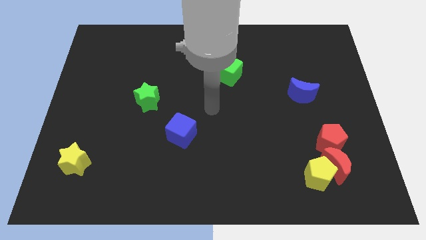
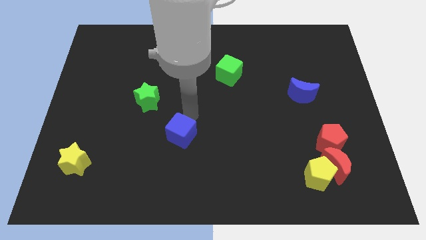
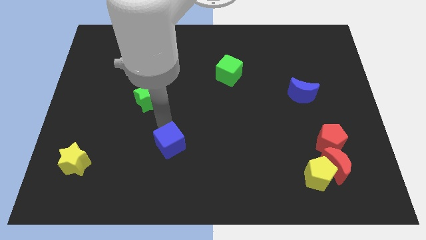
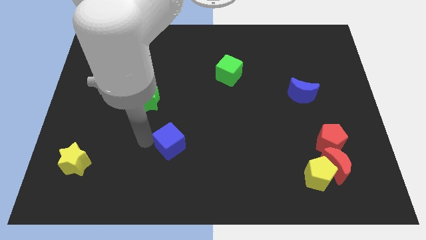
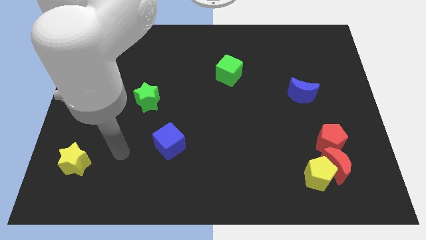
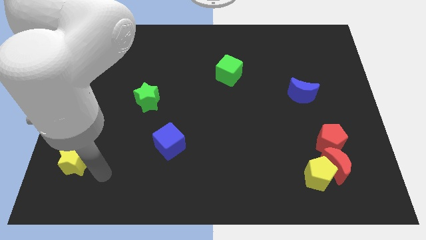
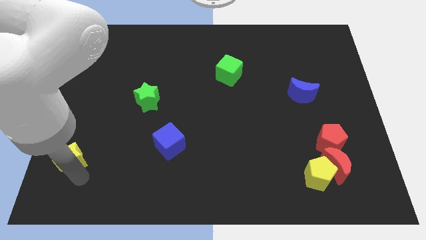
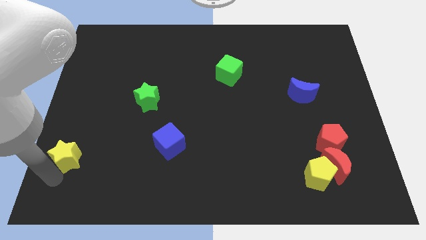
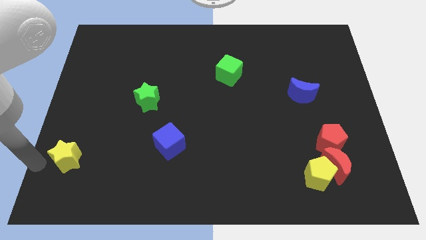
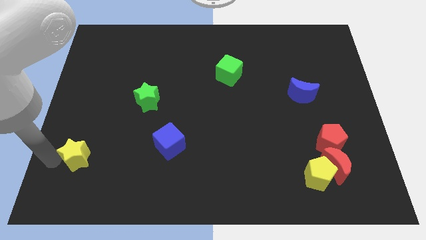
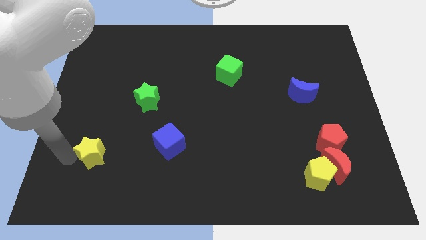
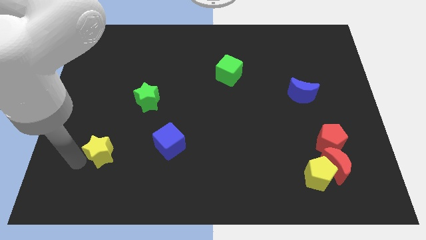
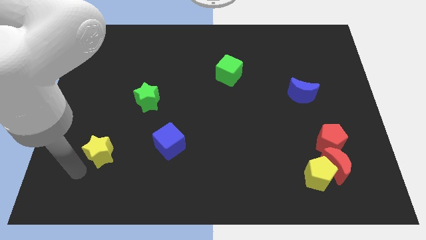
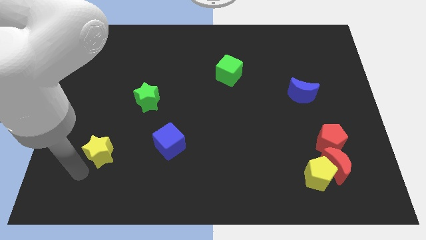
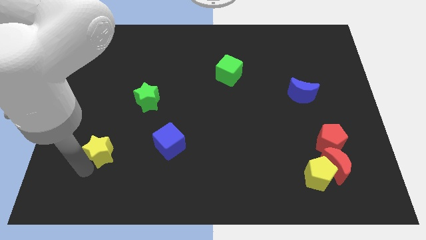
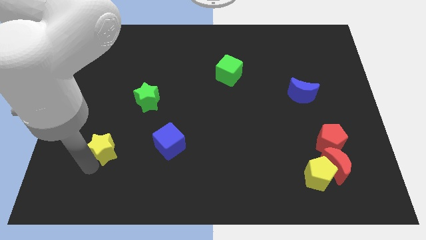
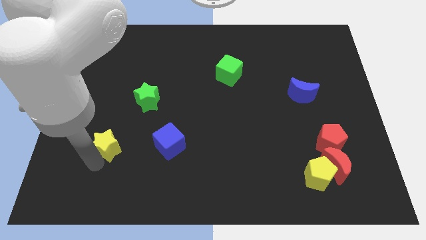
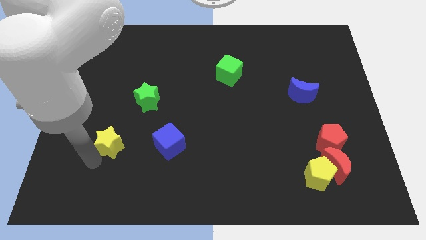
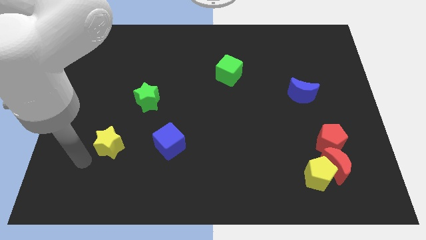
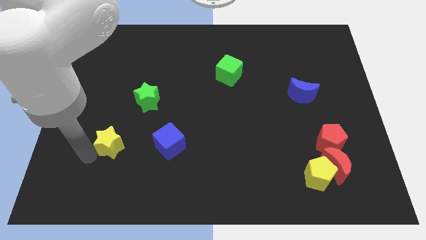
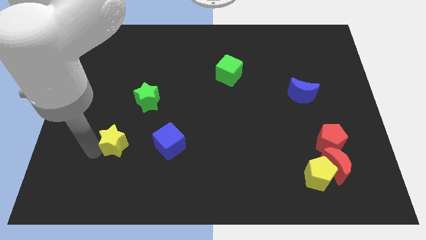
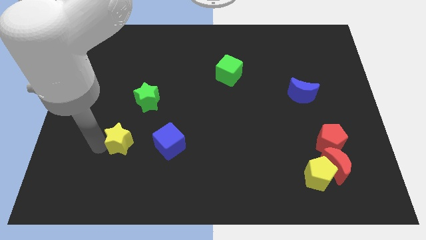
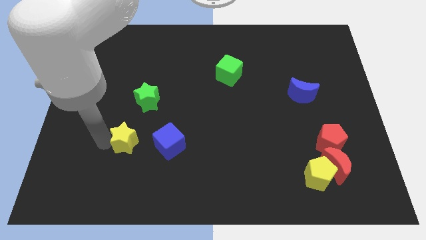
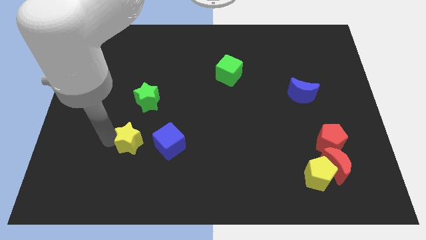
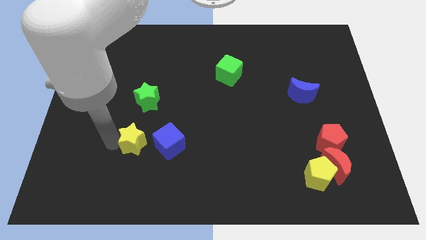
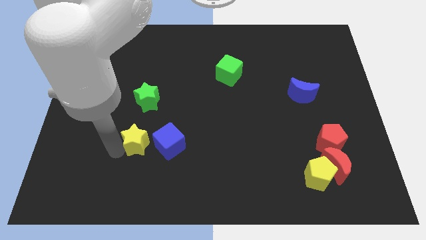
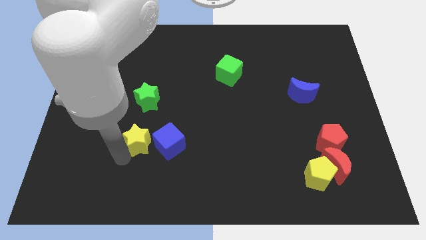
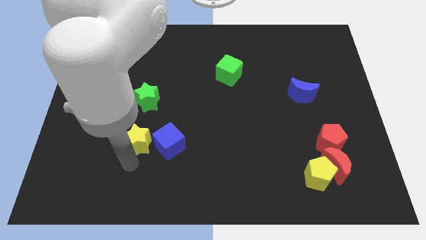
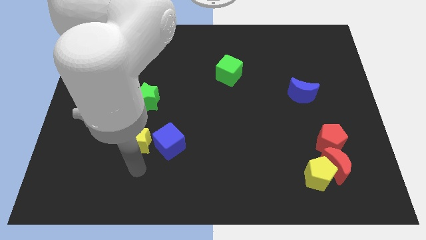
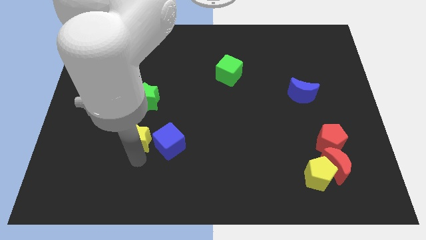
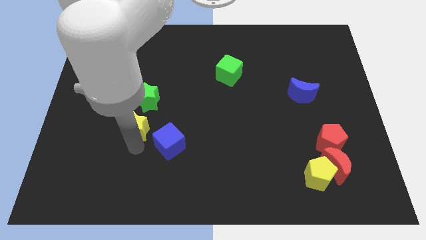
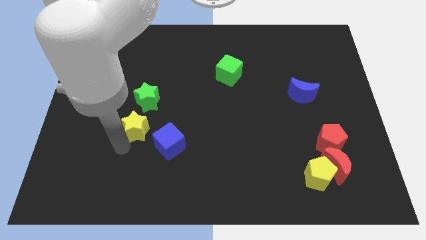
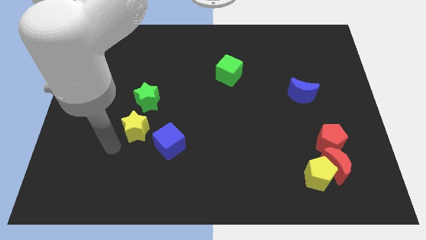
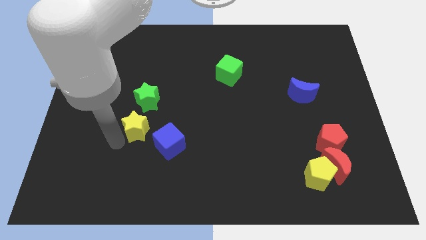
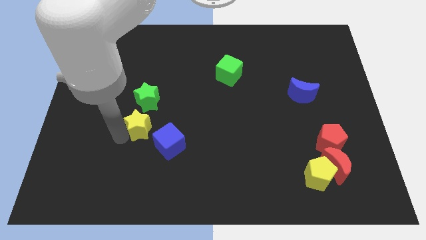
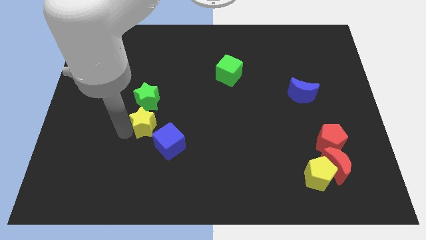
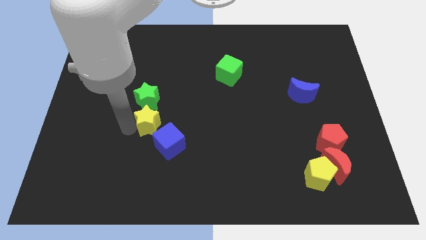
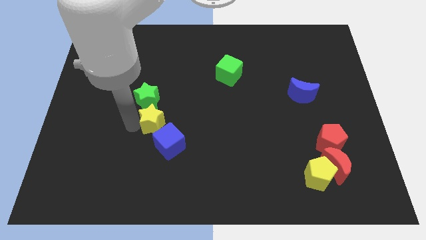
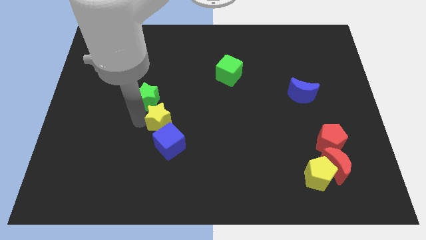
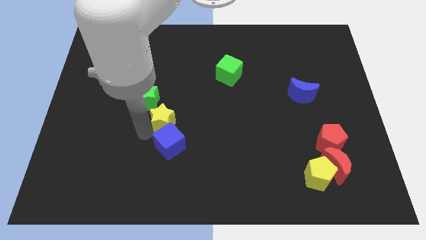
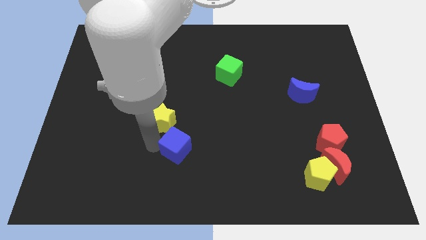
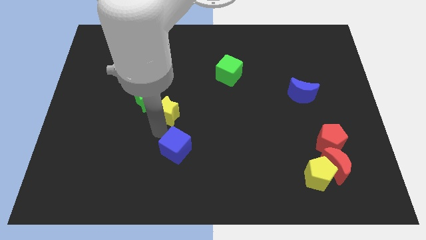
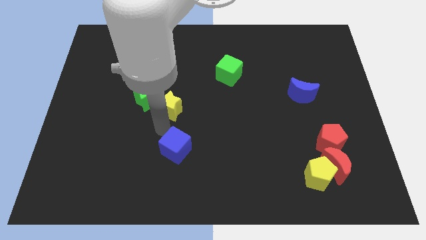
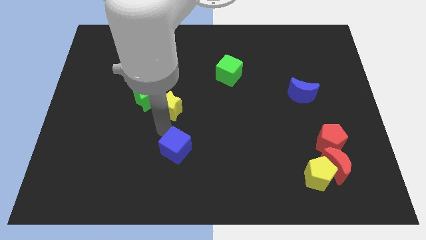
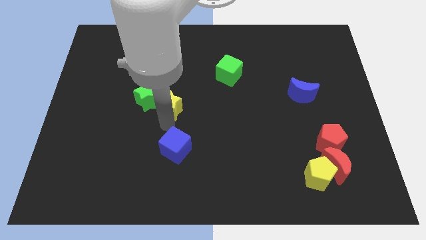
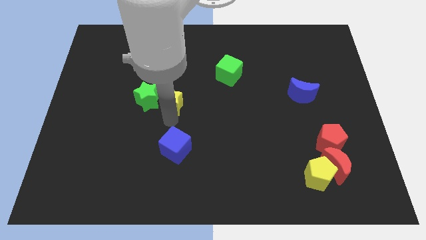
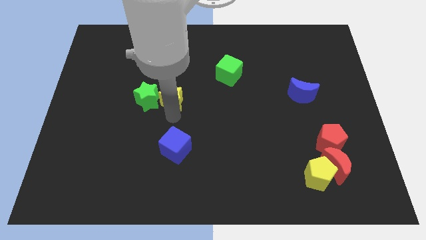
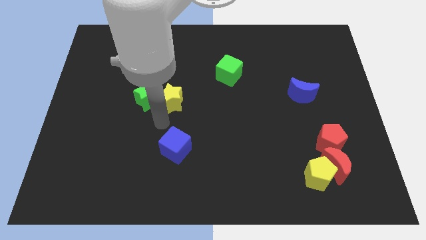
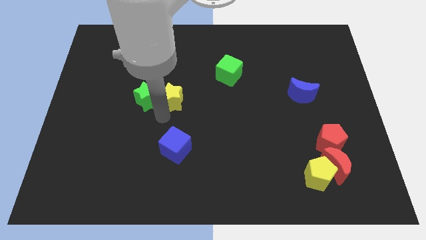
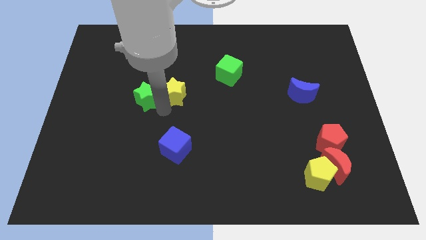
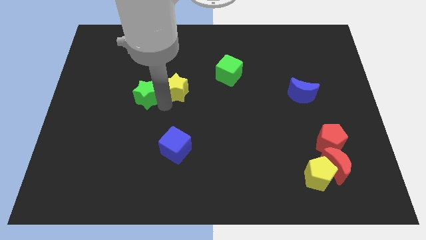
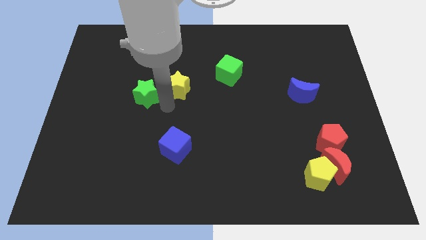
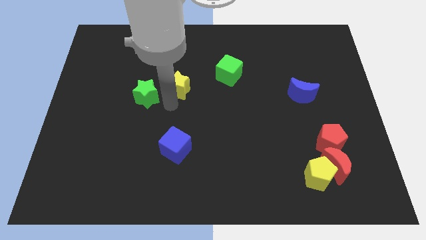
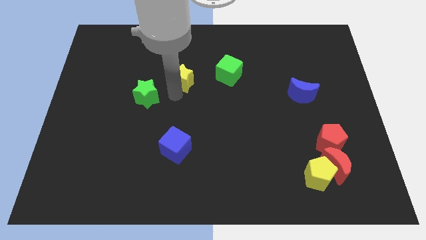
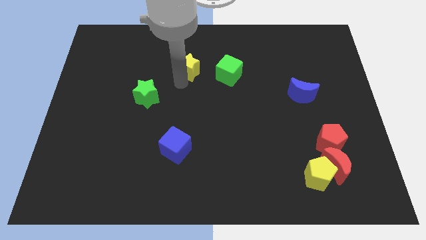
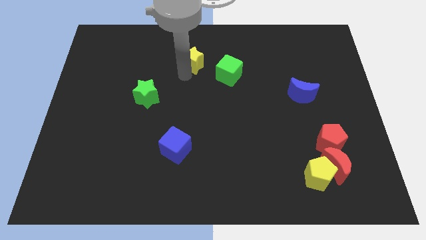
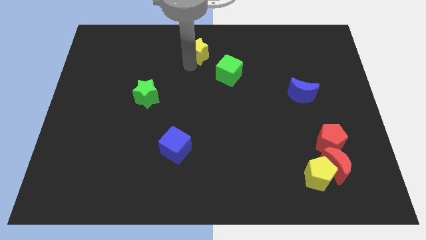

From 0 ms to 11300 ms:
put the yellow star to the top

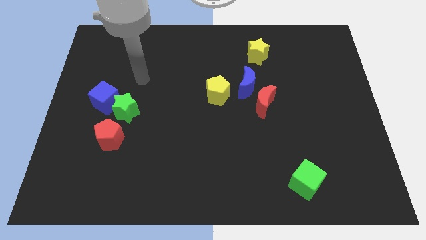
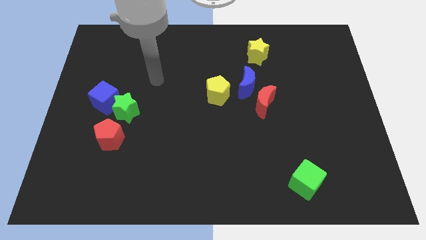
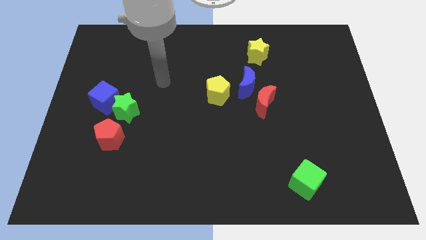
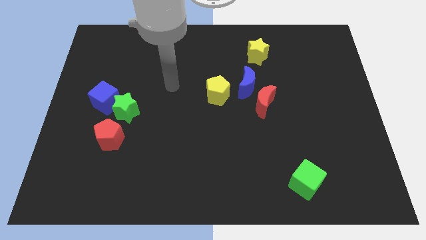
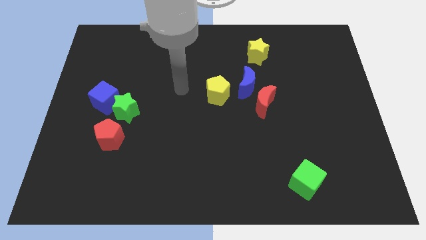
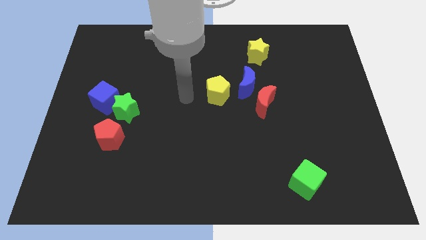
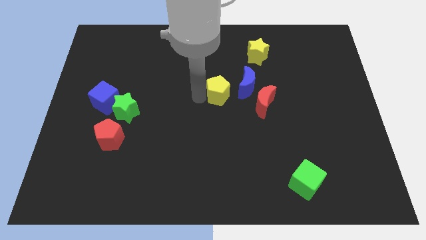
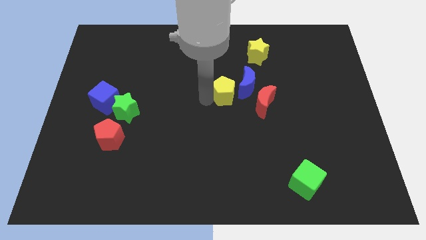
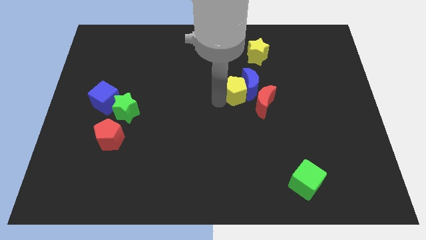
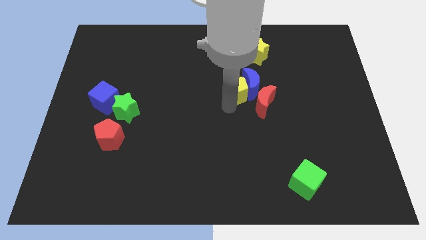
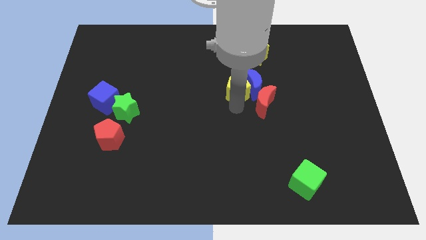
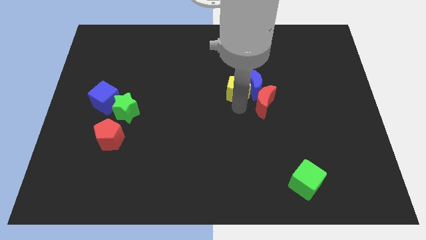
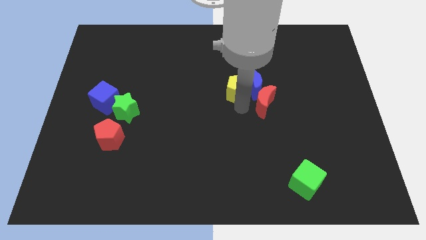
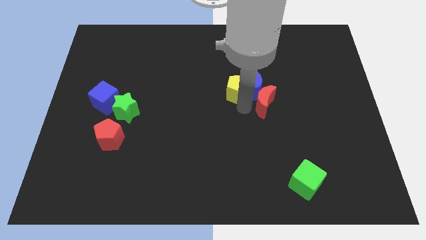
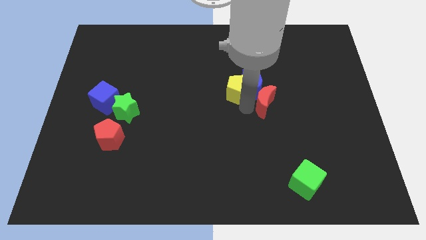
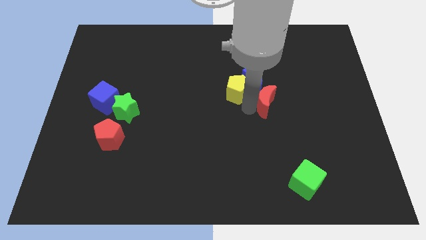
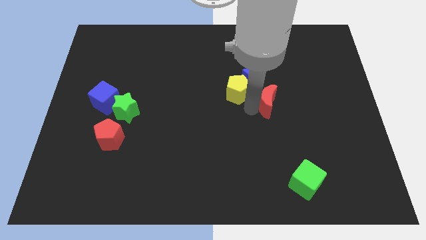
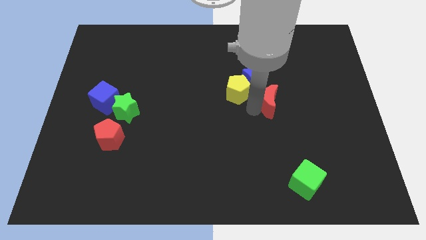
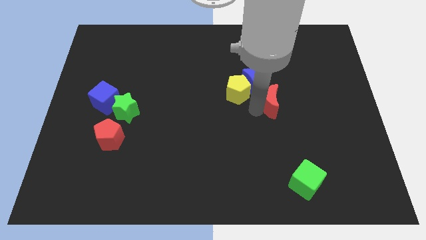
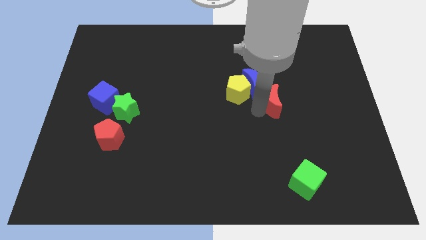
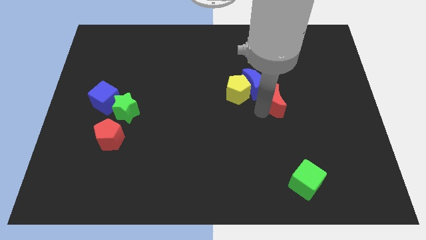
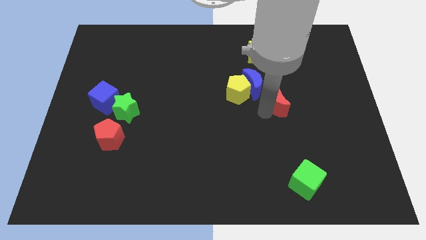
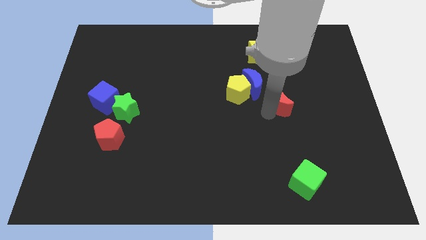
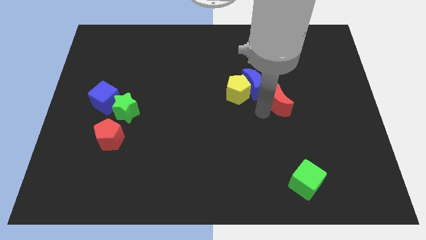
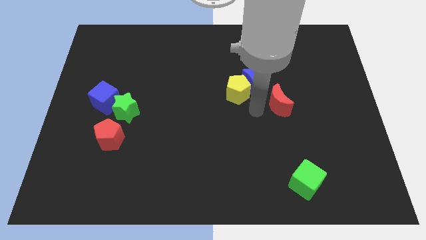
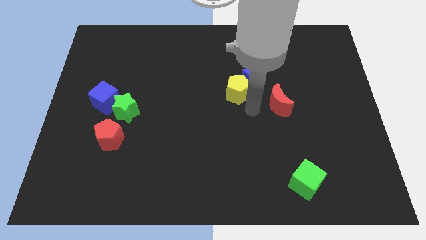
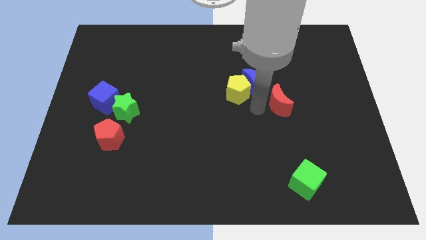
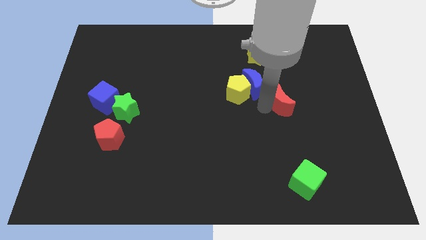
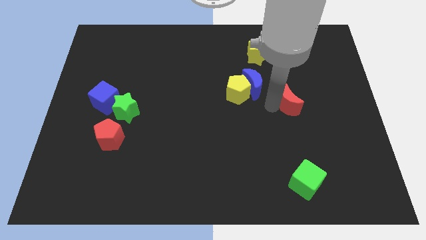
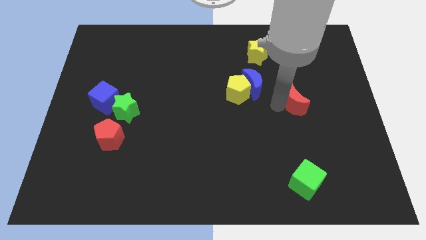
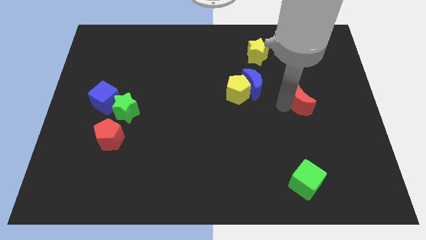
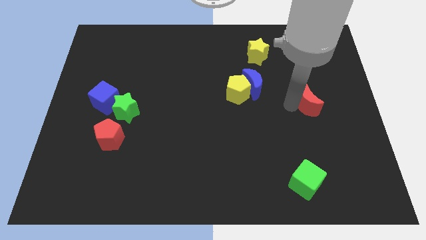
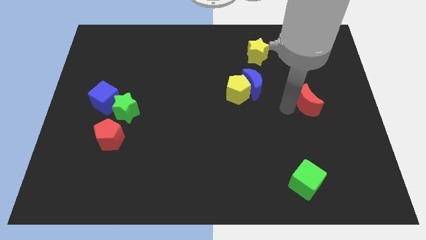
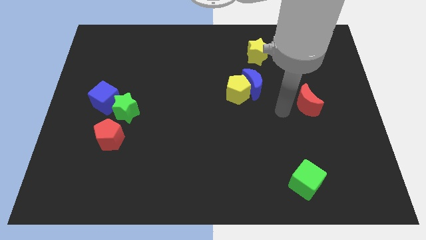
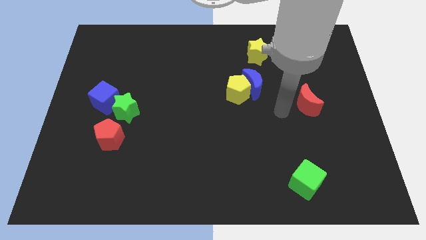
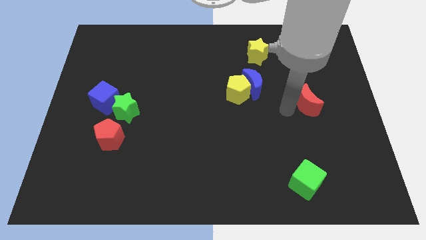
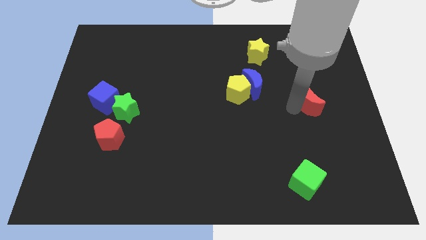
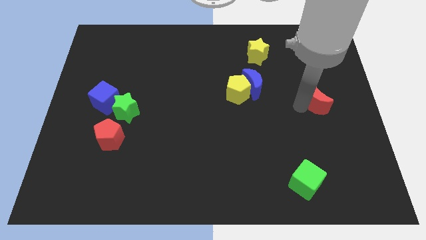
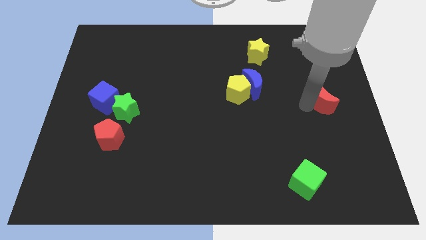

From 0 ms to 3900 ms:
slide the red moon to the right side
